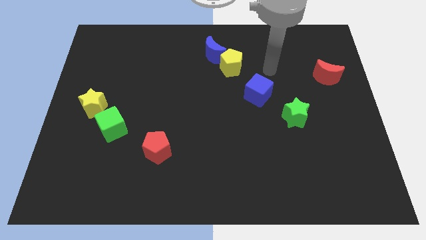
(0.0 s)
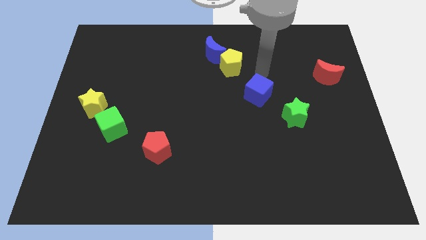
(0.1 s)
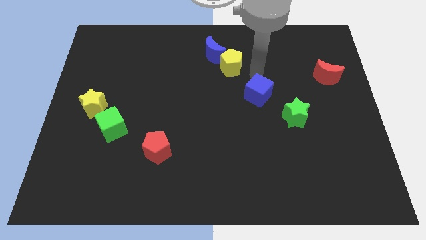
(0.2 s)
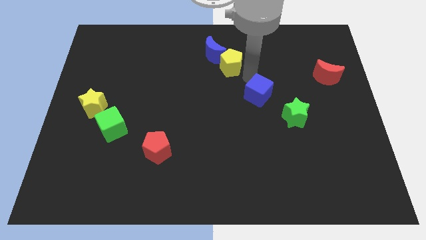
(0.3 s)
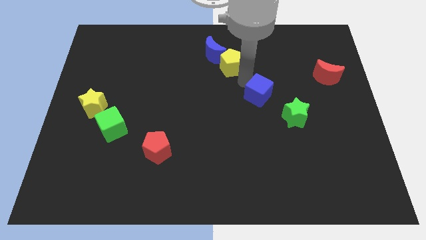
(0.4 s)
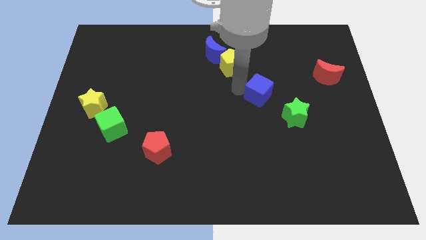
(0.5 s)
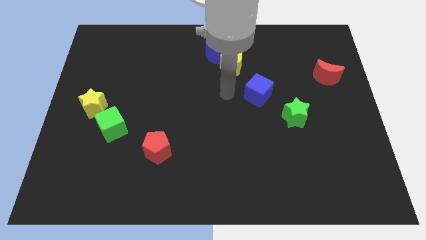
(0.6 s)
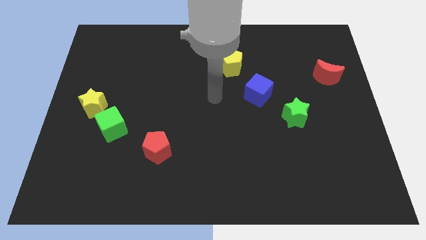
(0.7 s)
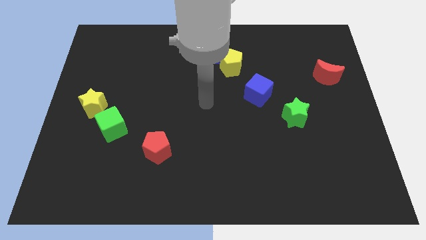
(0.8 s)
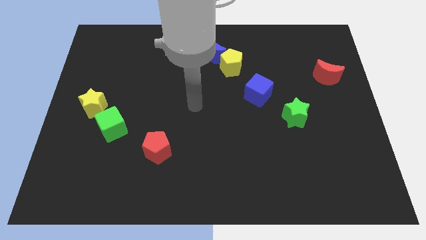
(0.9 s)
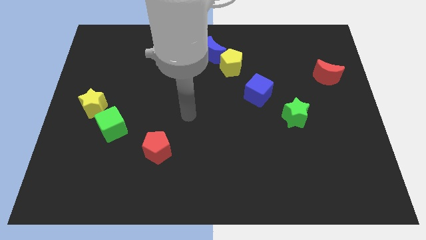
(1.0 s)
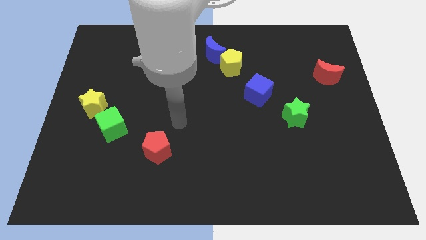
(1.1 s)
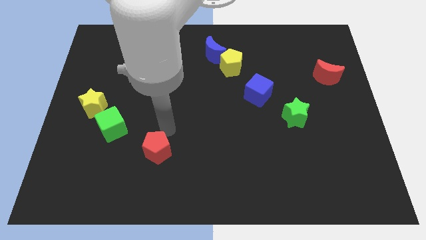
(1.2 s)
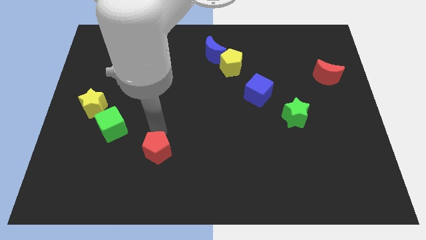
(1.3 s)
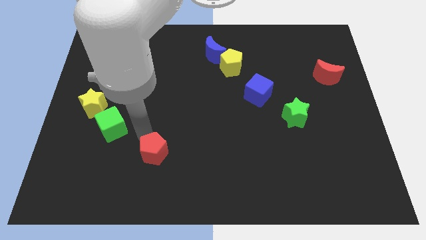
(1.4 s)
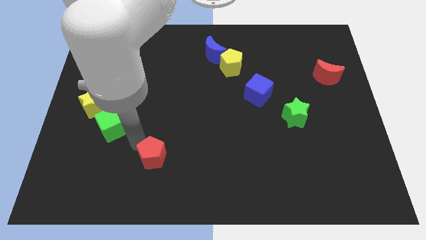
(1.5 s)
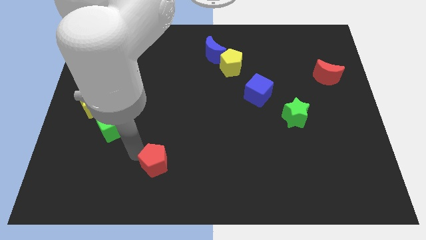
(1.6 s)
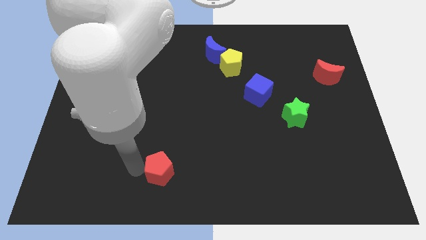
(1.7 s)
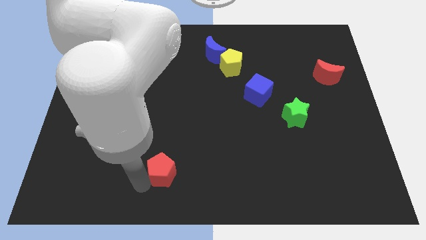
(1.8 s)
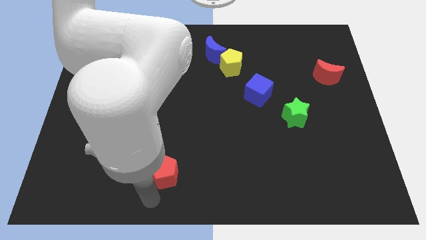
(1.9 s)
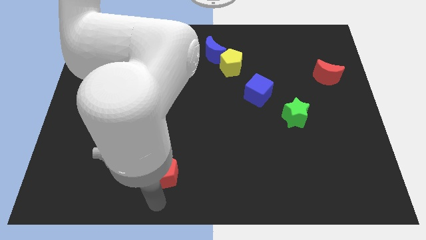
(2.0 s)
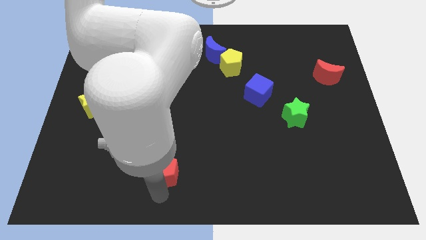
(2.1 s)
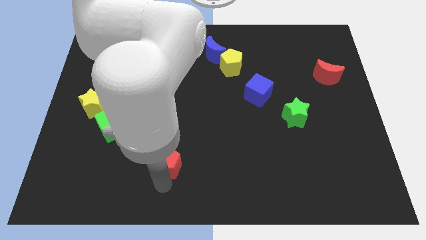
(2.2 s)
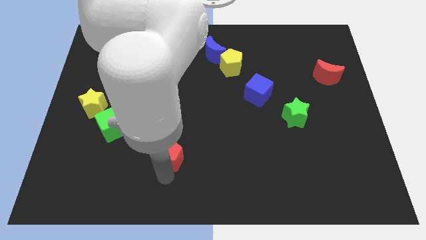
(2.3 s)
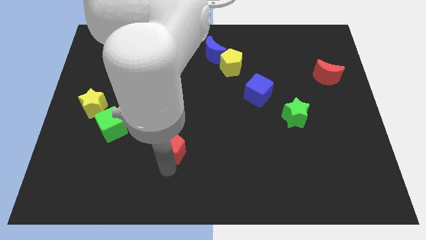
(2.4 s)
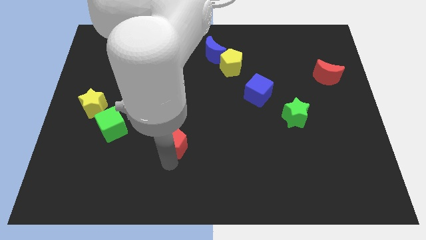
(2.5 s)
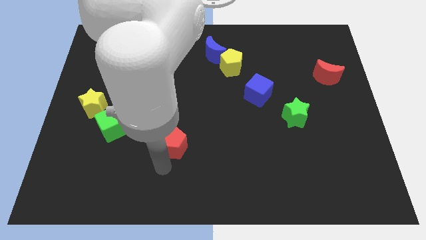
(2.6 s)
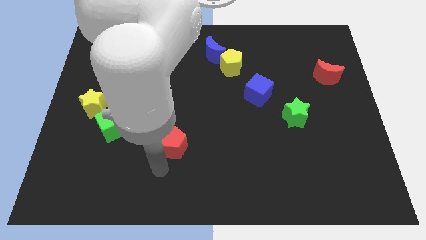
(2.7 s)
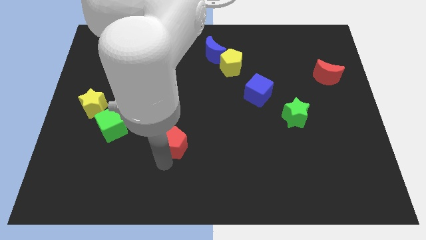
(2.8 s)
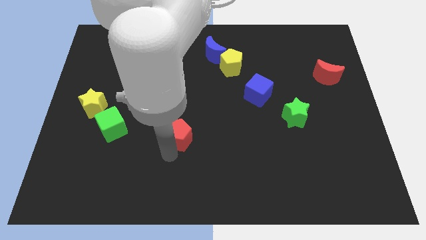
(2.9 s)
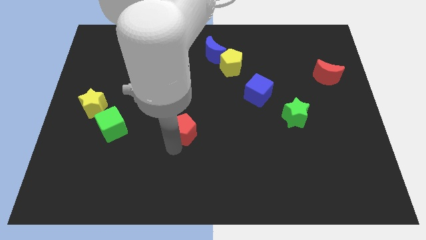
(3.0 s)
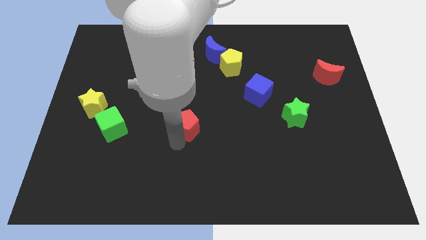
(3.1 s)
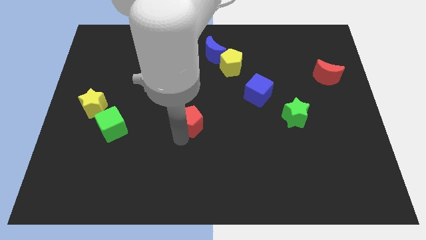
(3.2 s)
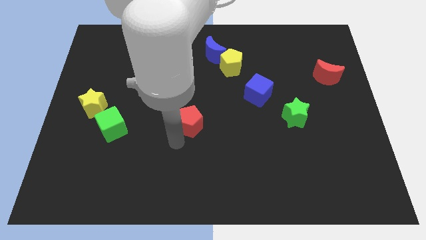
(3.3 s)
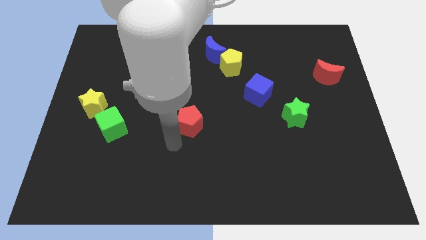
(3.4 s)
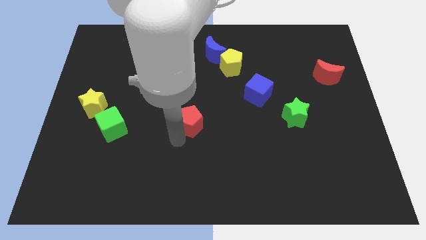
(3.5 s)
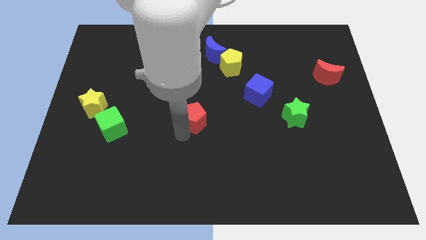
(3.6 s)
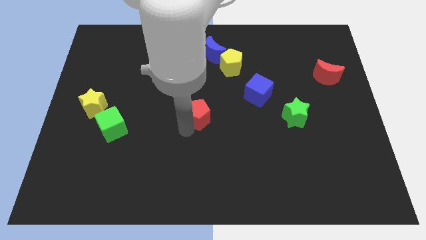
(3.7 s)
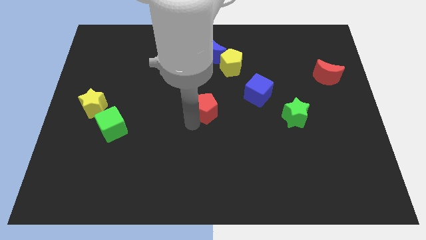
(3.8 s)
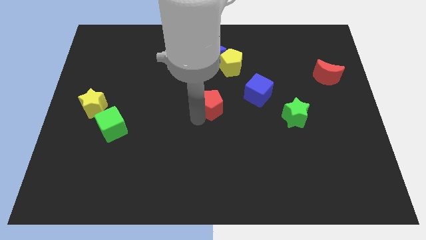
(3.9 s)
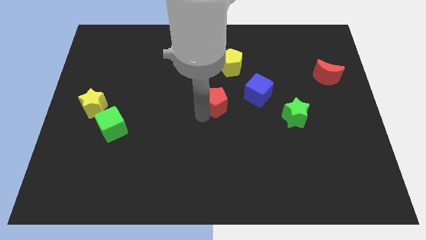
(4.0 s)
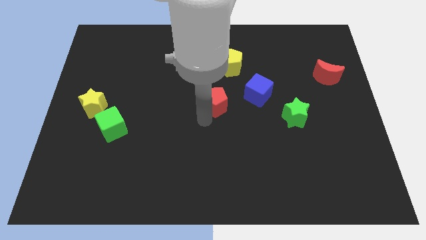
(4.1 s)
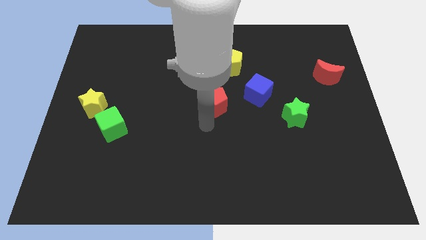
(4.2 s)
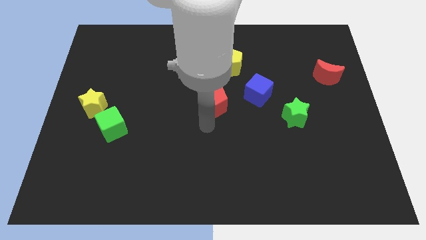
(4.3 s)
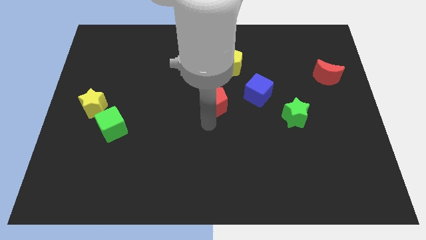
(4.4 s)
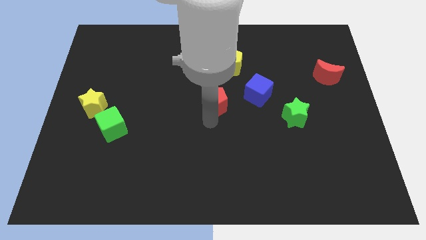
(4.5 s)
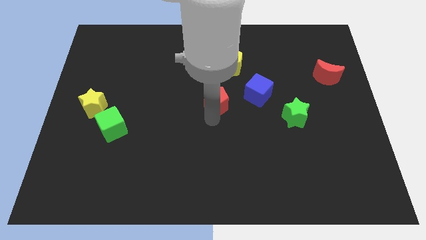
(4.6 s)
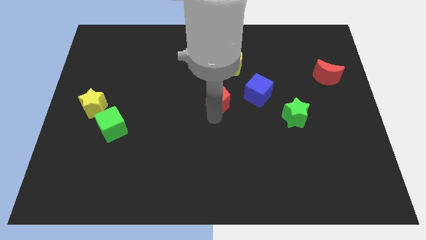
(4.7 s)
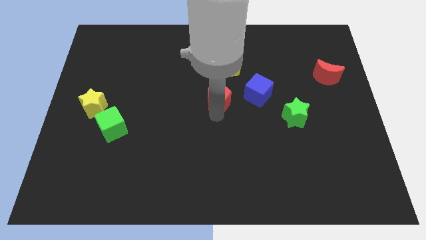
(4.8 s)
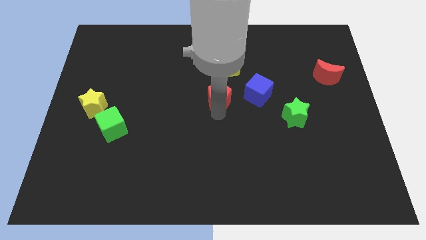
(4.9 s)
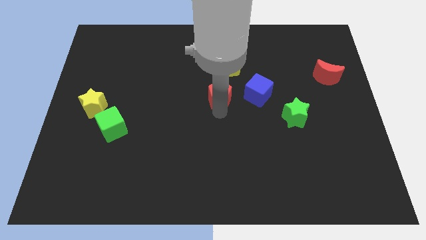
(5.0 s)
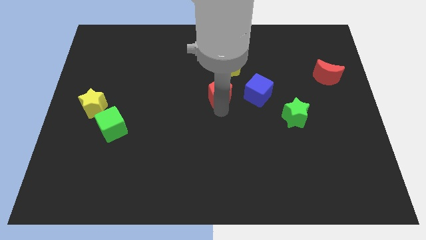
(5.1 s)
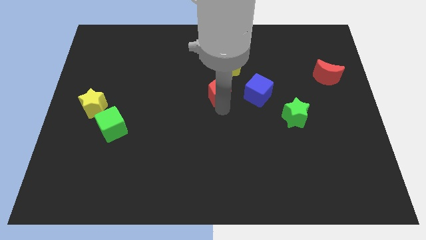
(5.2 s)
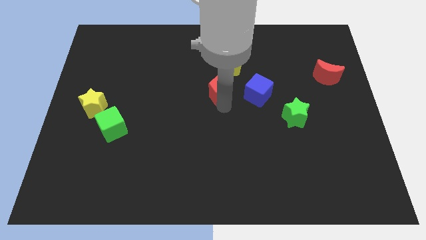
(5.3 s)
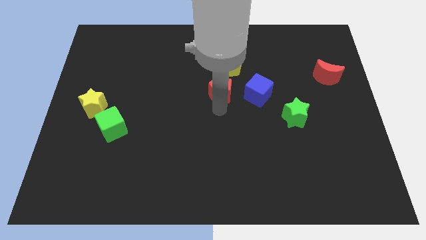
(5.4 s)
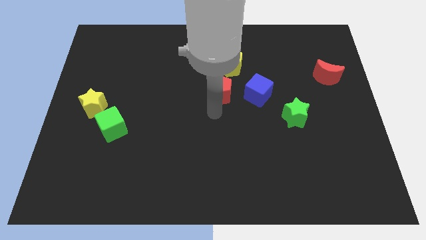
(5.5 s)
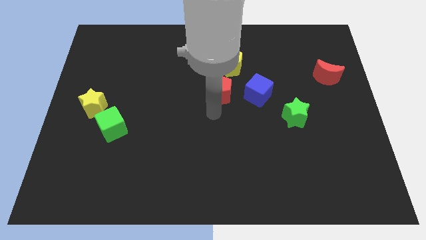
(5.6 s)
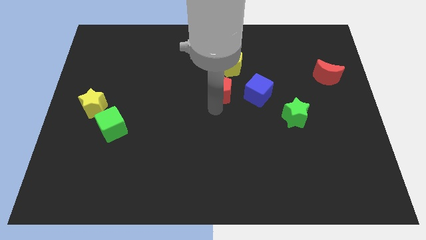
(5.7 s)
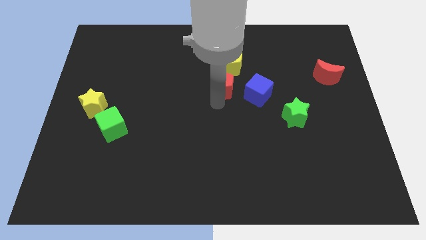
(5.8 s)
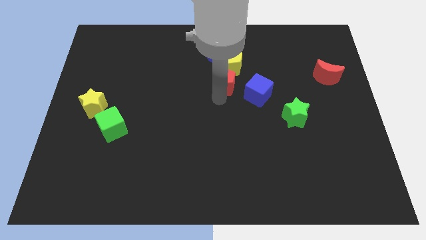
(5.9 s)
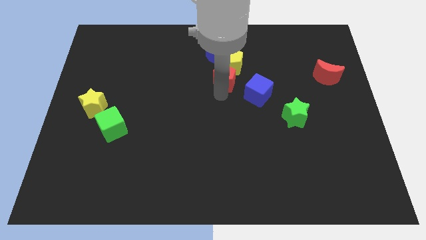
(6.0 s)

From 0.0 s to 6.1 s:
push the red pentagon close to the yellow pentagon
